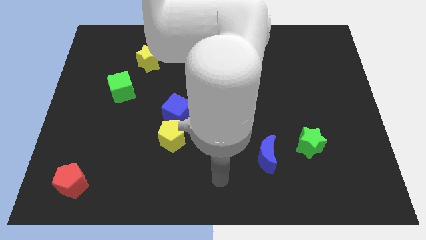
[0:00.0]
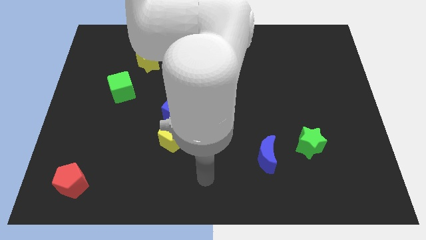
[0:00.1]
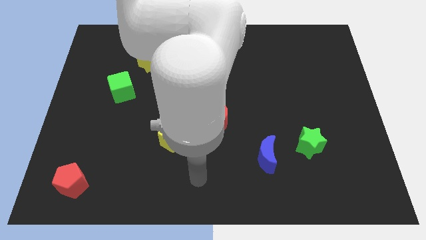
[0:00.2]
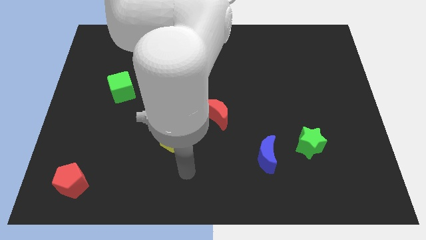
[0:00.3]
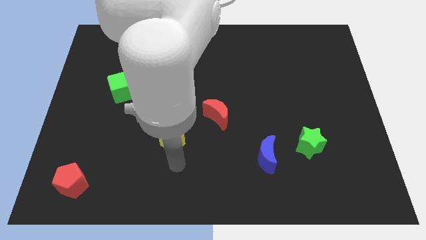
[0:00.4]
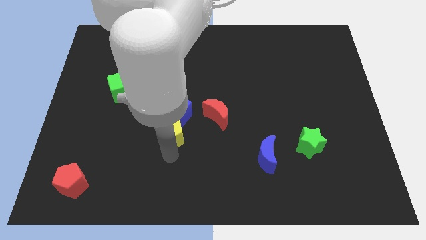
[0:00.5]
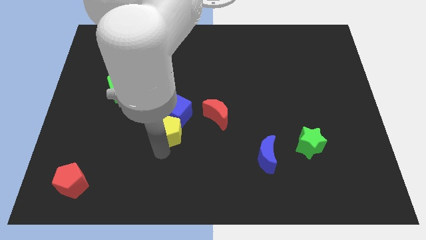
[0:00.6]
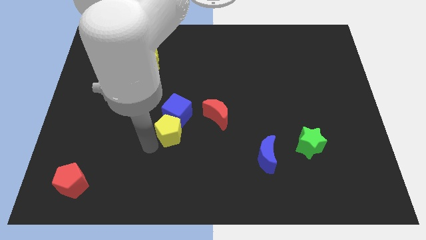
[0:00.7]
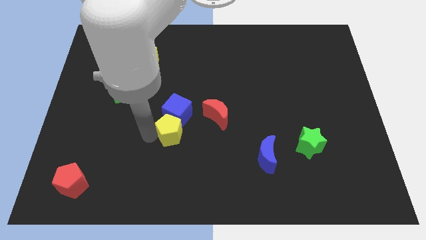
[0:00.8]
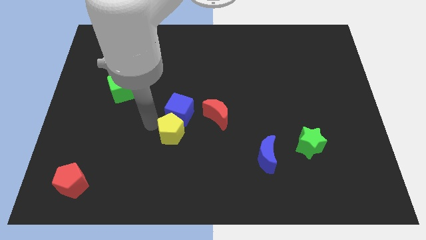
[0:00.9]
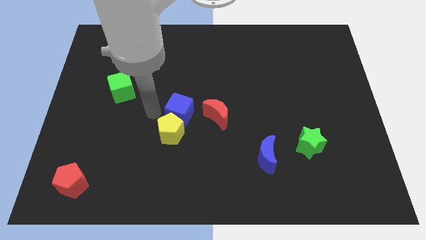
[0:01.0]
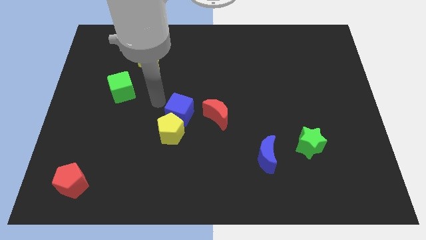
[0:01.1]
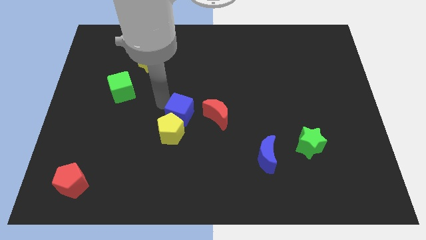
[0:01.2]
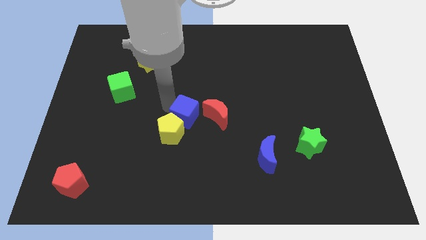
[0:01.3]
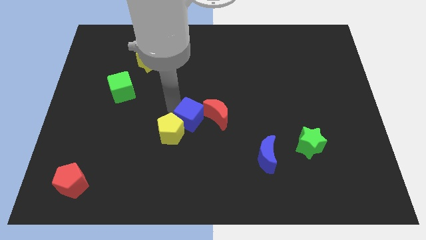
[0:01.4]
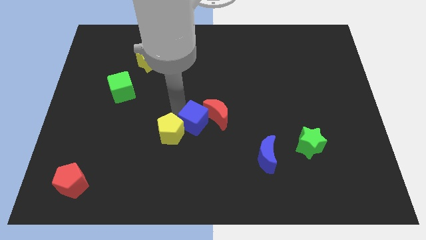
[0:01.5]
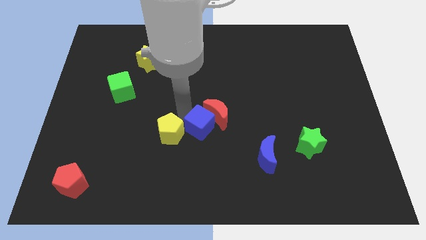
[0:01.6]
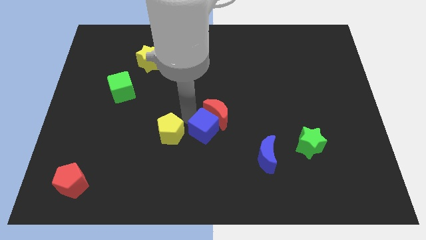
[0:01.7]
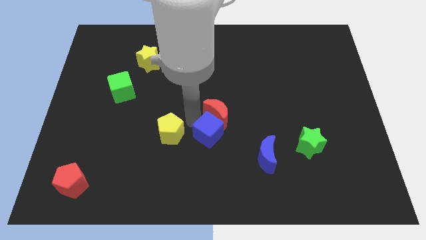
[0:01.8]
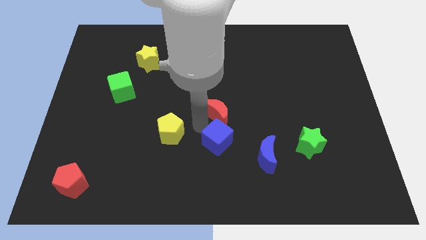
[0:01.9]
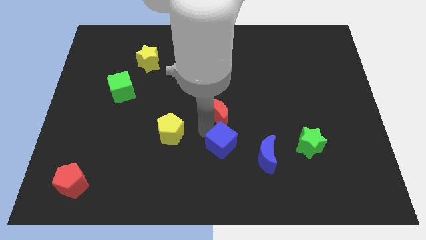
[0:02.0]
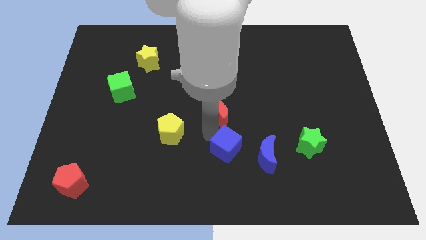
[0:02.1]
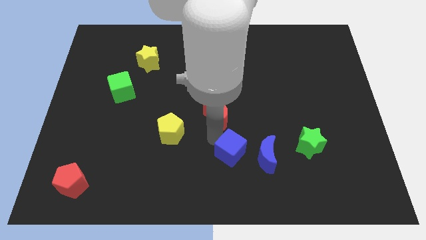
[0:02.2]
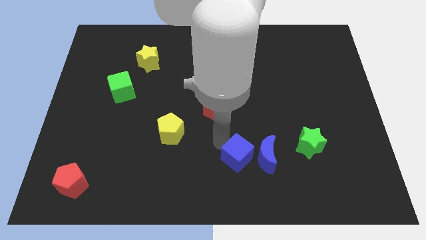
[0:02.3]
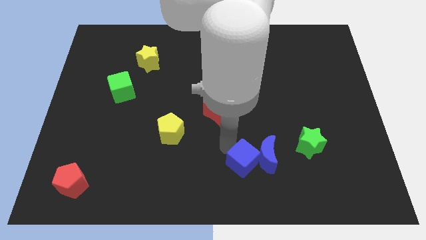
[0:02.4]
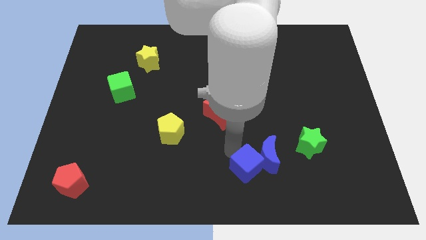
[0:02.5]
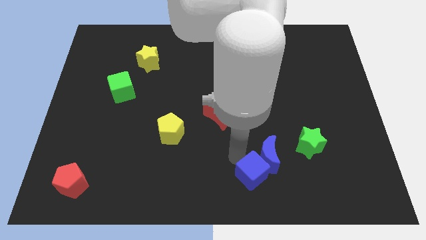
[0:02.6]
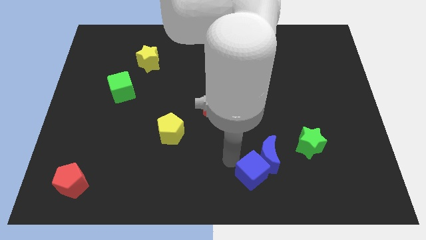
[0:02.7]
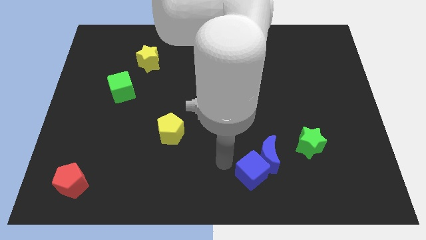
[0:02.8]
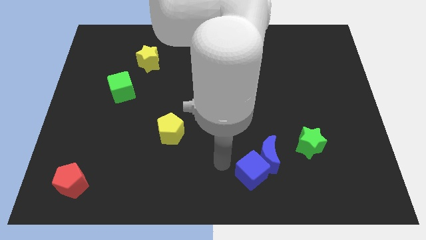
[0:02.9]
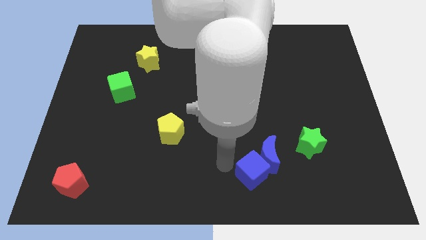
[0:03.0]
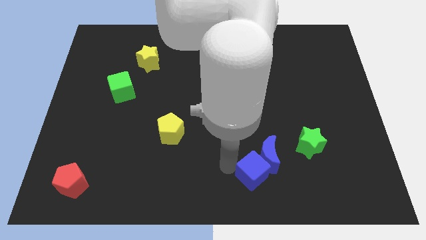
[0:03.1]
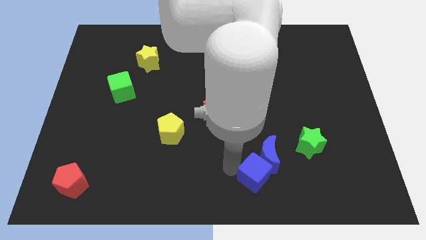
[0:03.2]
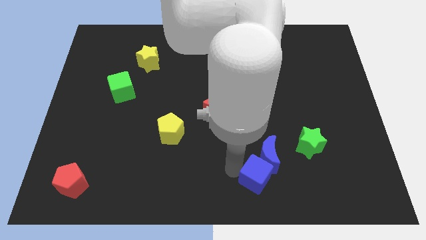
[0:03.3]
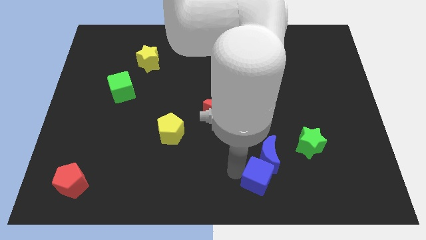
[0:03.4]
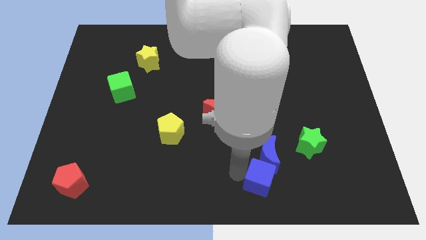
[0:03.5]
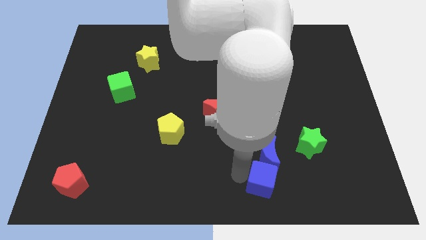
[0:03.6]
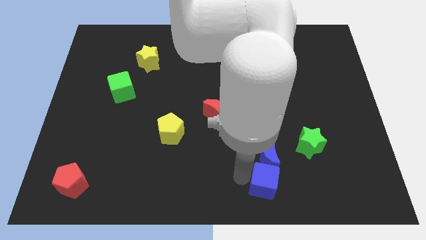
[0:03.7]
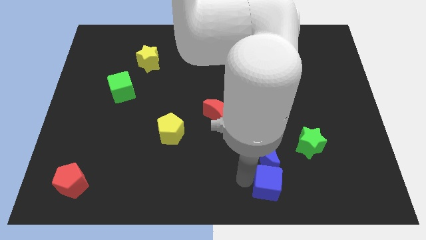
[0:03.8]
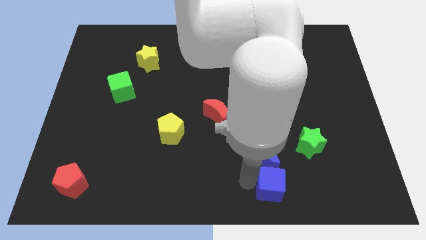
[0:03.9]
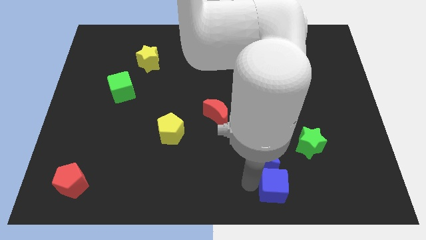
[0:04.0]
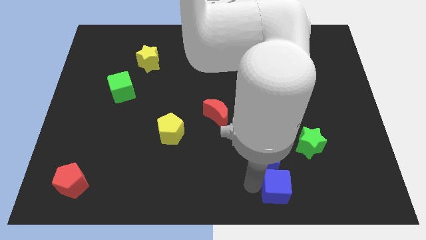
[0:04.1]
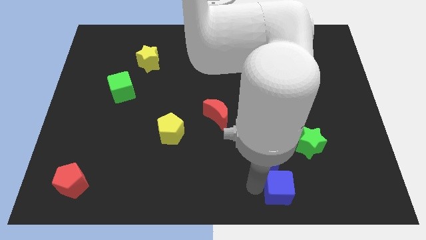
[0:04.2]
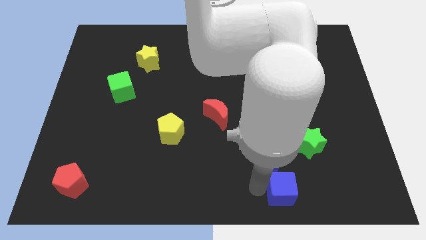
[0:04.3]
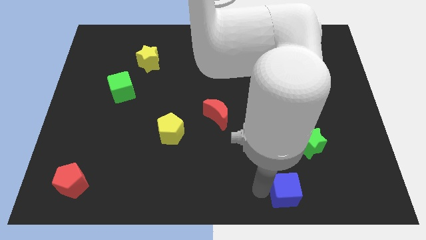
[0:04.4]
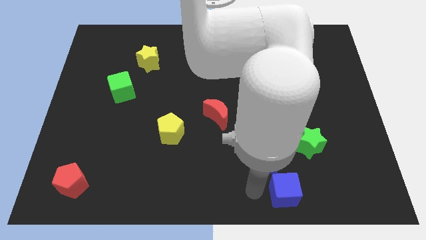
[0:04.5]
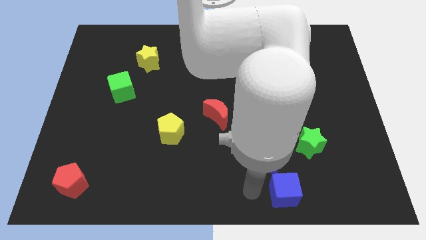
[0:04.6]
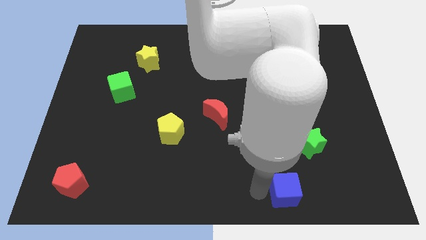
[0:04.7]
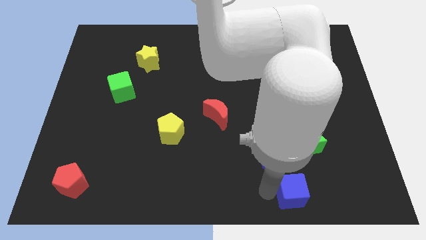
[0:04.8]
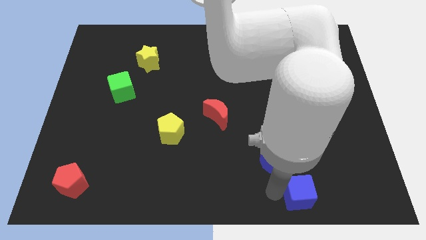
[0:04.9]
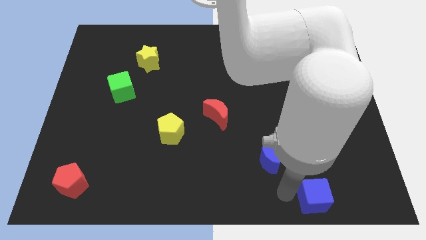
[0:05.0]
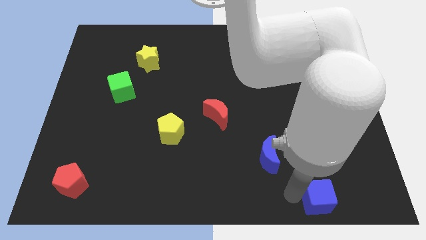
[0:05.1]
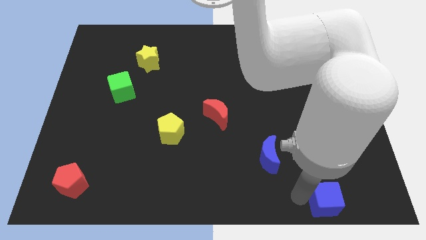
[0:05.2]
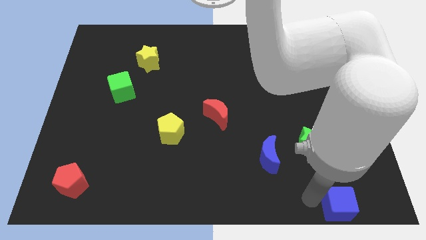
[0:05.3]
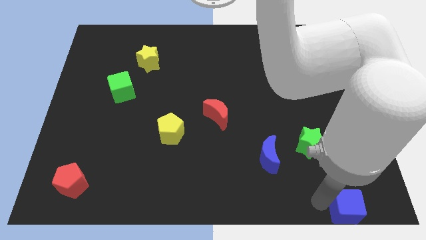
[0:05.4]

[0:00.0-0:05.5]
move the blue cube to the lower right corner

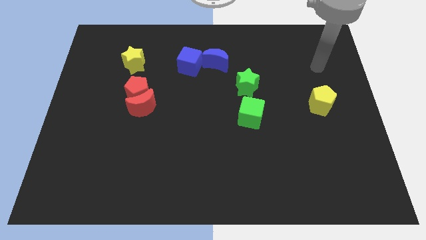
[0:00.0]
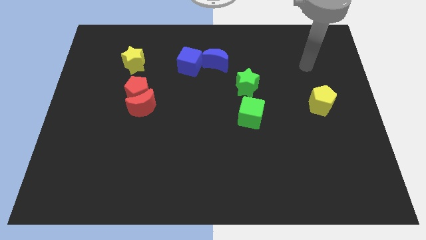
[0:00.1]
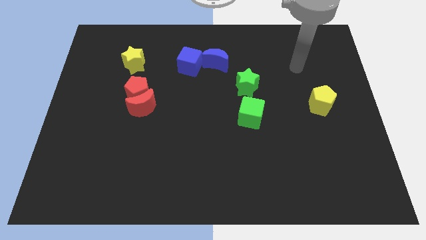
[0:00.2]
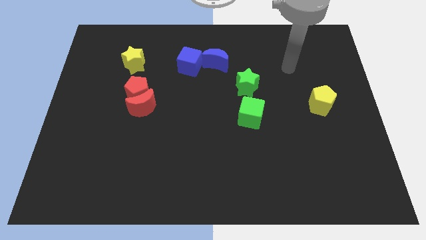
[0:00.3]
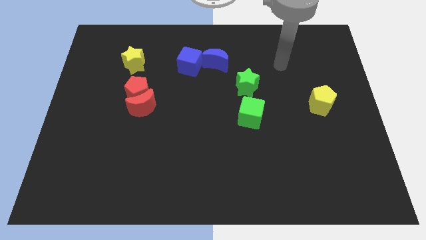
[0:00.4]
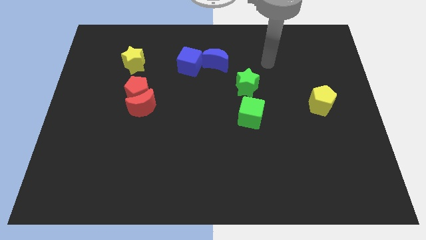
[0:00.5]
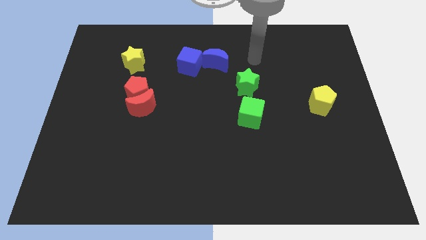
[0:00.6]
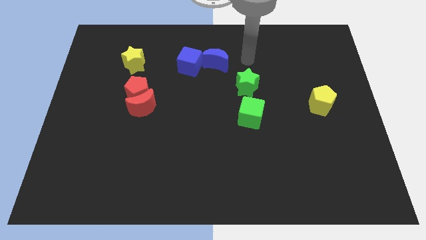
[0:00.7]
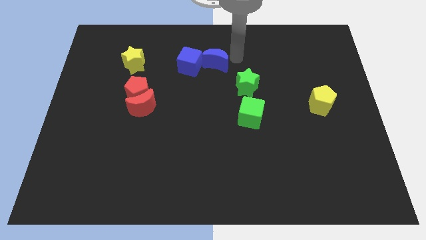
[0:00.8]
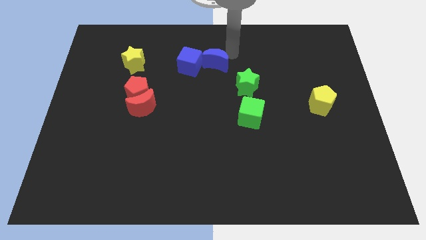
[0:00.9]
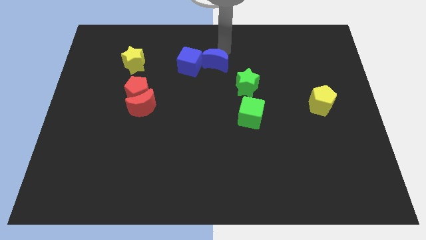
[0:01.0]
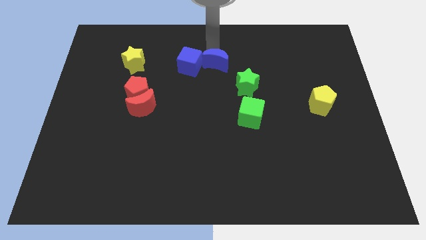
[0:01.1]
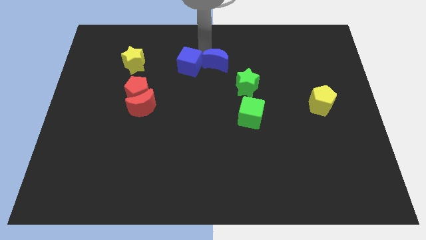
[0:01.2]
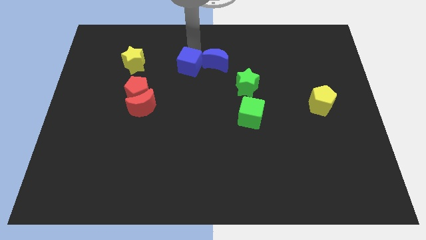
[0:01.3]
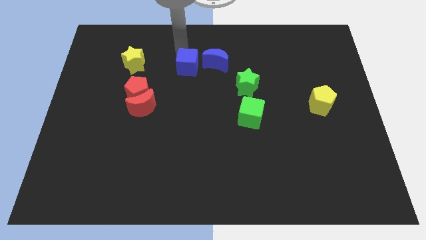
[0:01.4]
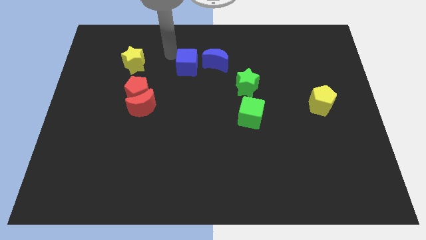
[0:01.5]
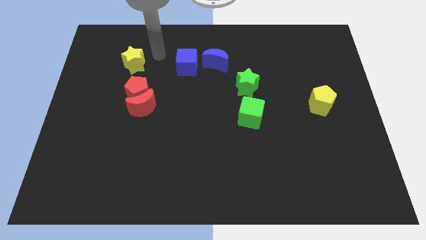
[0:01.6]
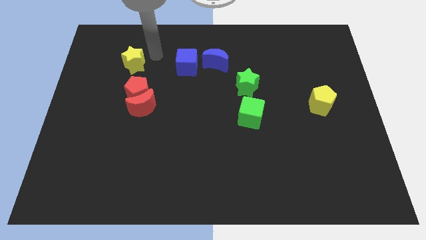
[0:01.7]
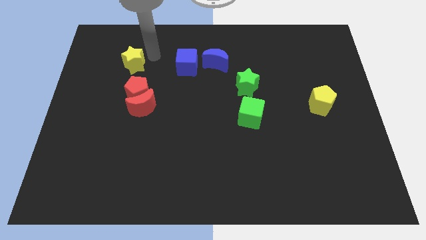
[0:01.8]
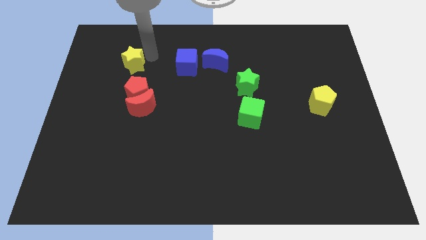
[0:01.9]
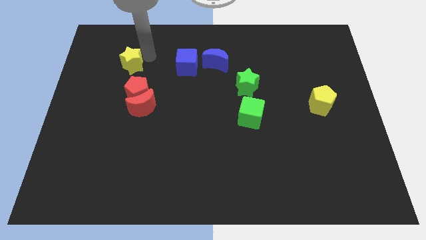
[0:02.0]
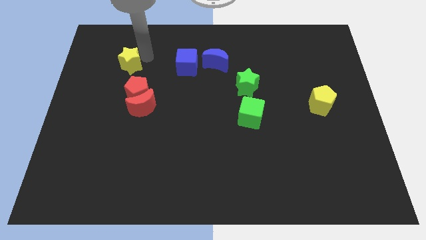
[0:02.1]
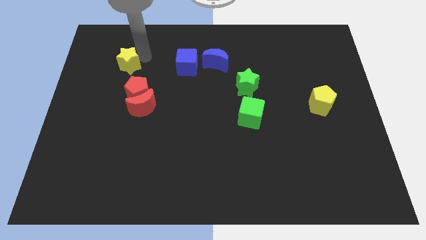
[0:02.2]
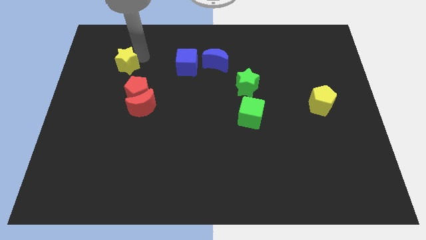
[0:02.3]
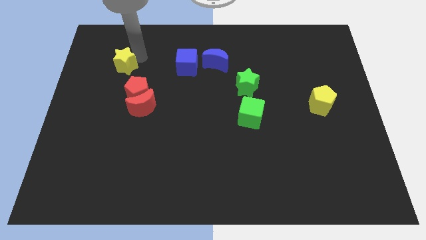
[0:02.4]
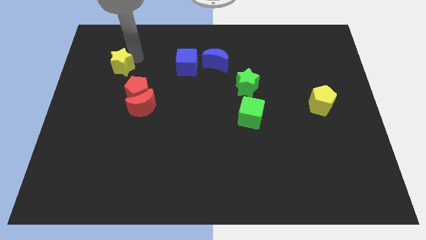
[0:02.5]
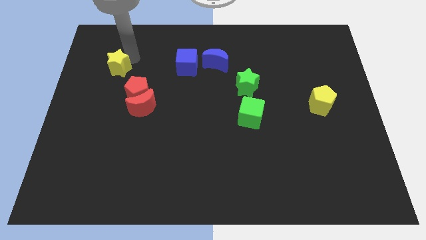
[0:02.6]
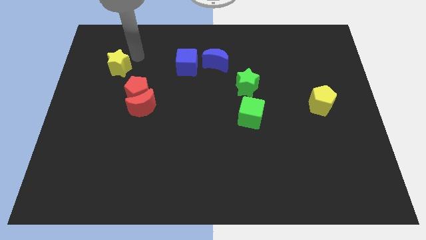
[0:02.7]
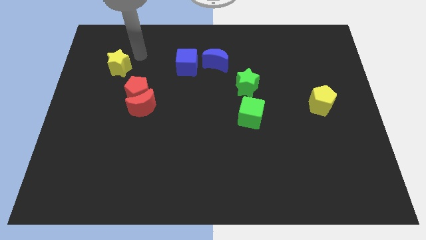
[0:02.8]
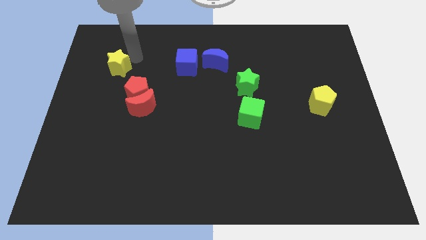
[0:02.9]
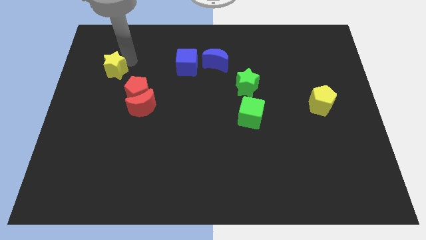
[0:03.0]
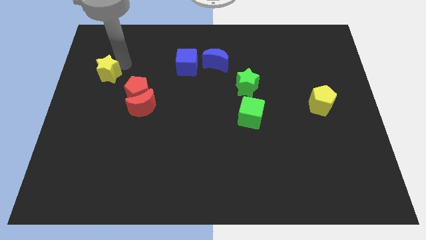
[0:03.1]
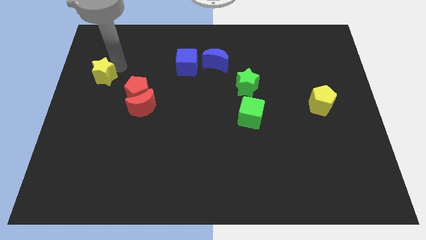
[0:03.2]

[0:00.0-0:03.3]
push the yellow star to the left side of the board
